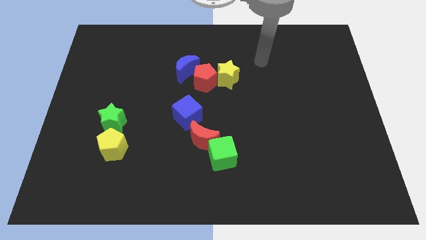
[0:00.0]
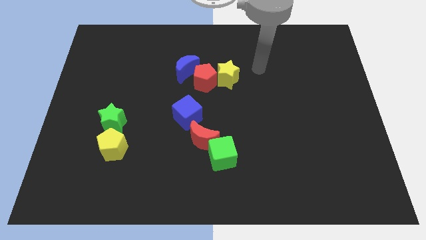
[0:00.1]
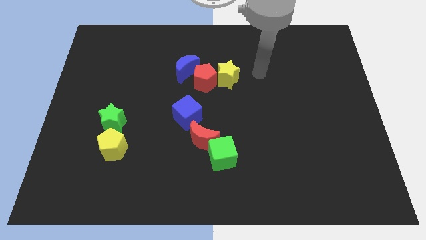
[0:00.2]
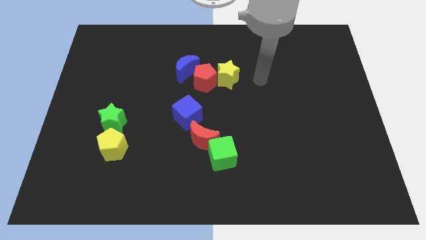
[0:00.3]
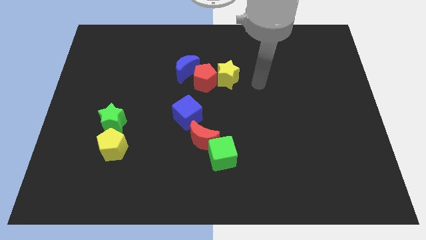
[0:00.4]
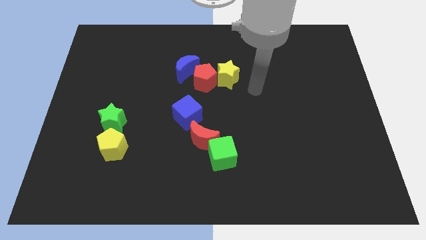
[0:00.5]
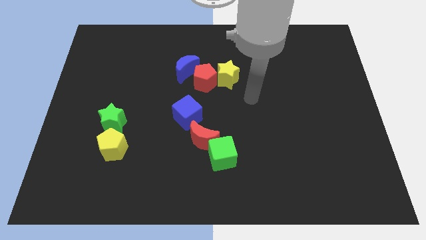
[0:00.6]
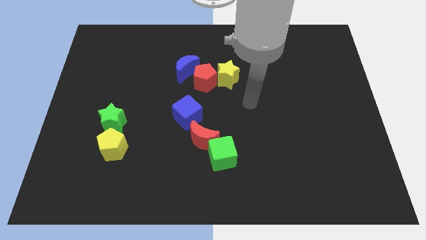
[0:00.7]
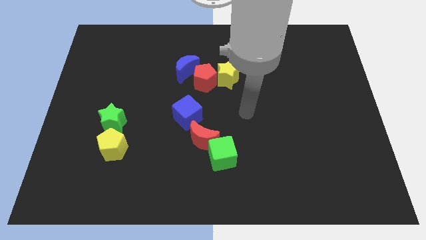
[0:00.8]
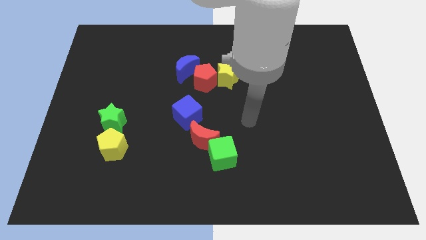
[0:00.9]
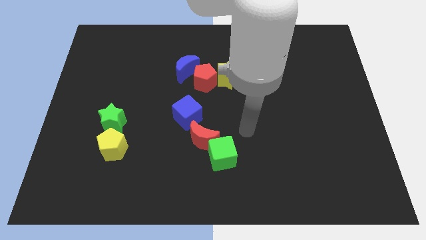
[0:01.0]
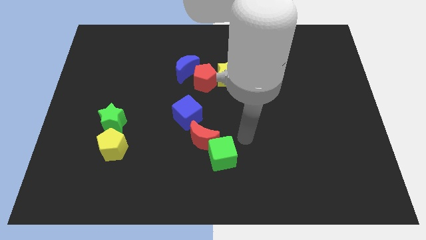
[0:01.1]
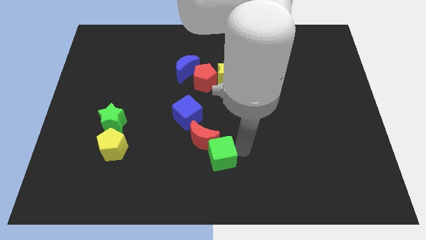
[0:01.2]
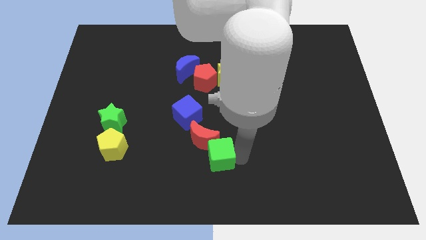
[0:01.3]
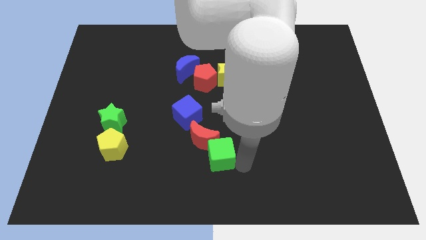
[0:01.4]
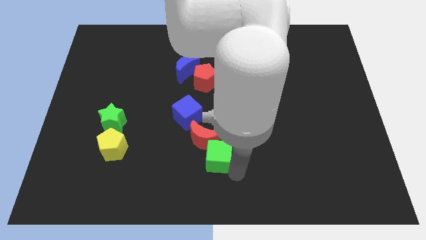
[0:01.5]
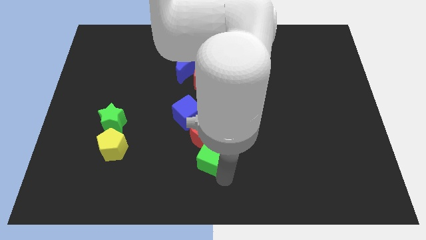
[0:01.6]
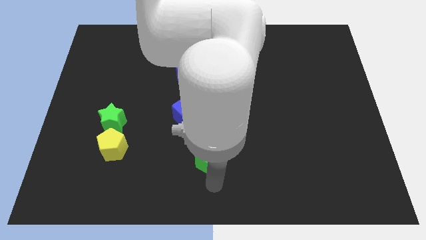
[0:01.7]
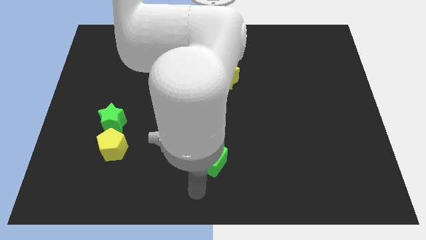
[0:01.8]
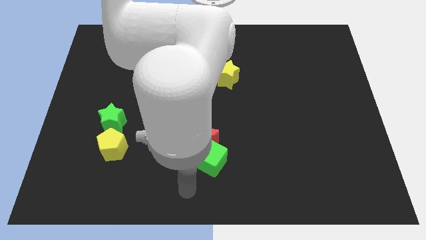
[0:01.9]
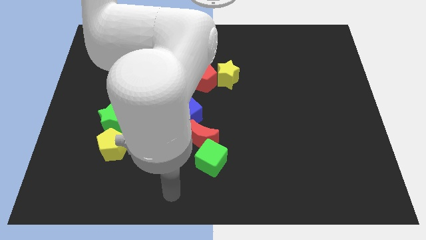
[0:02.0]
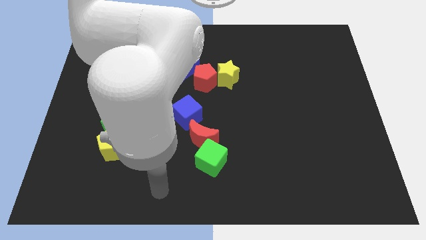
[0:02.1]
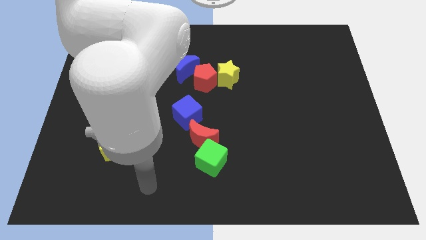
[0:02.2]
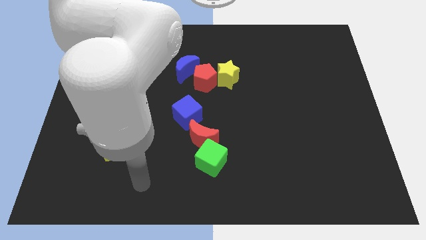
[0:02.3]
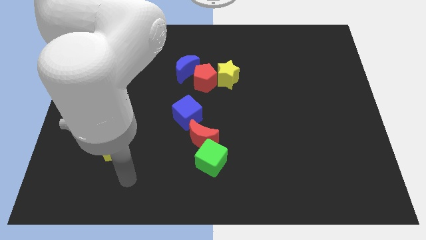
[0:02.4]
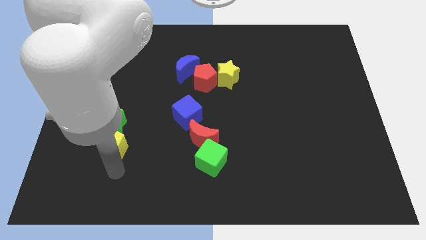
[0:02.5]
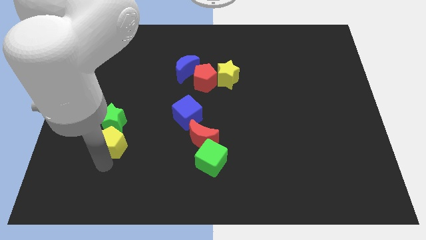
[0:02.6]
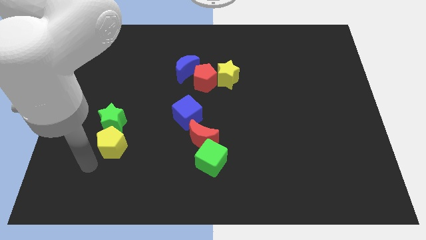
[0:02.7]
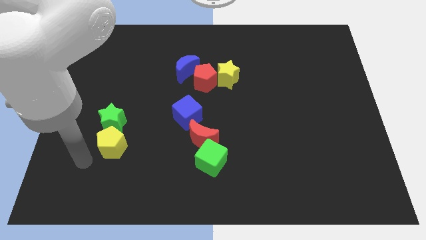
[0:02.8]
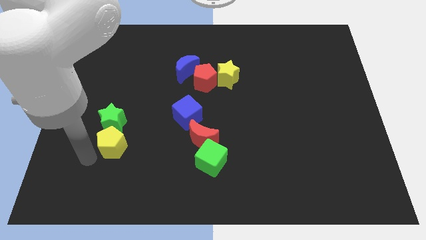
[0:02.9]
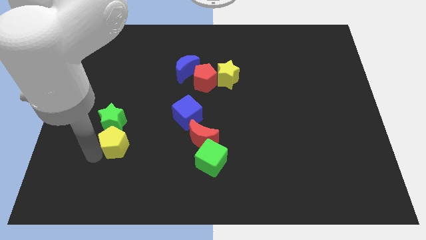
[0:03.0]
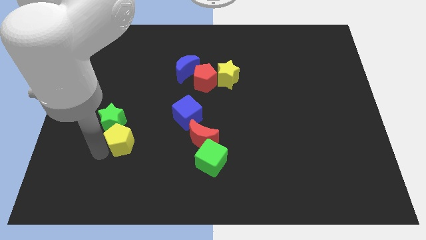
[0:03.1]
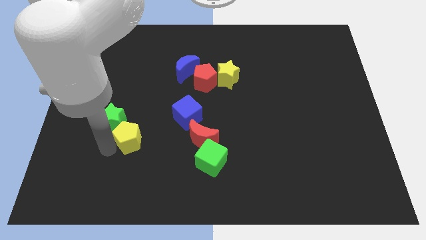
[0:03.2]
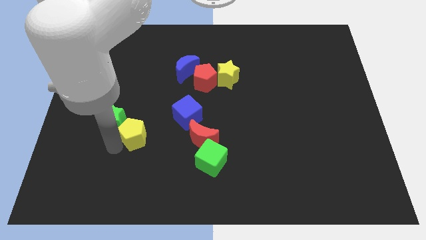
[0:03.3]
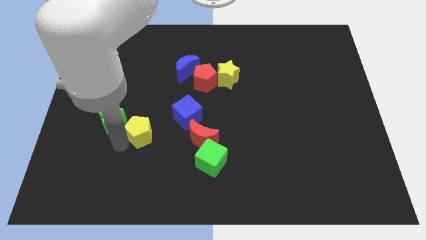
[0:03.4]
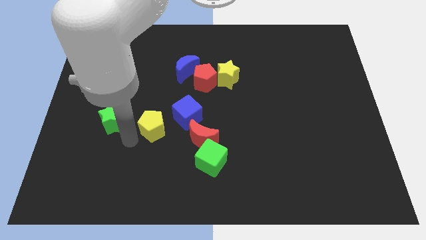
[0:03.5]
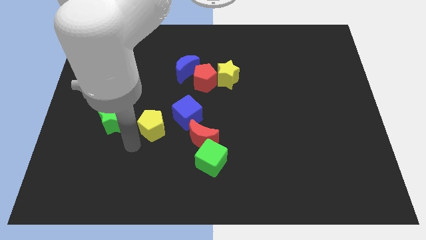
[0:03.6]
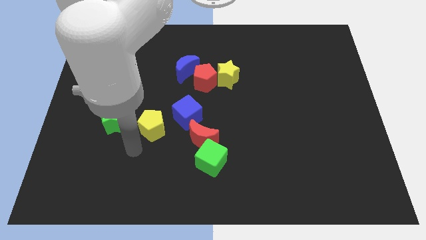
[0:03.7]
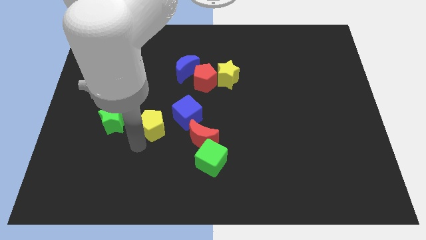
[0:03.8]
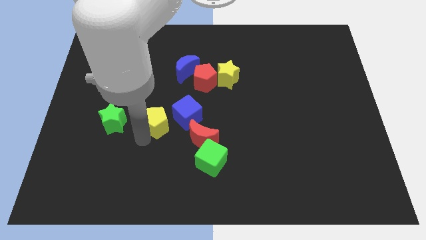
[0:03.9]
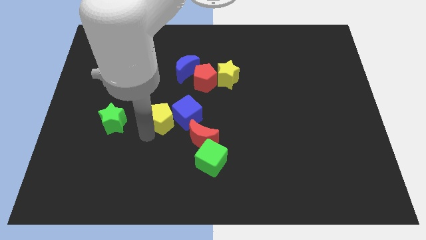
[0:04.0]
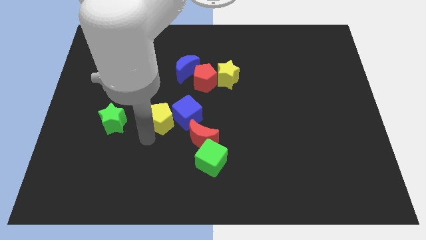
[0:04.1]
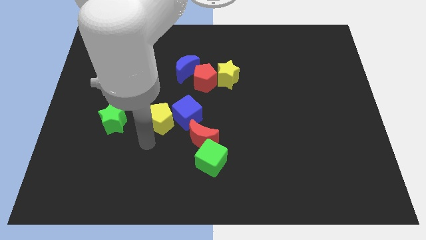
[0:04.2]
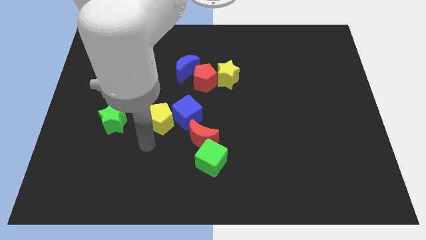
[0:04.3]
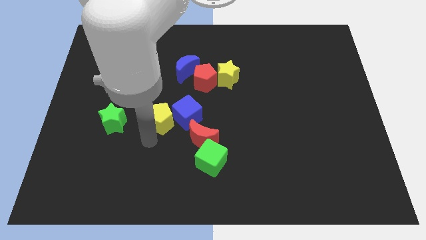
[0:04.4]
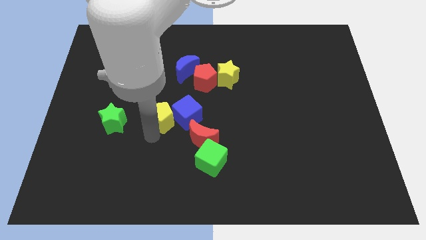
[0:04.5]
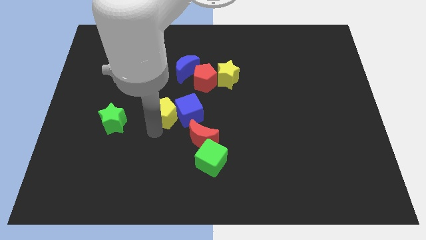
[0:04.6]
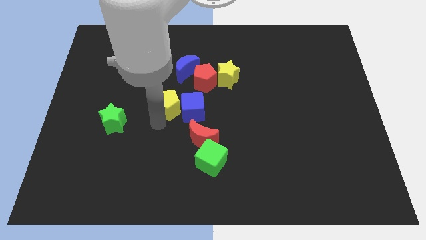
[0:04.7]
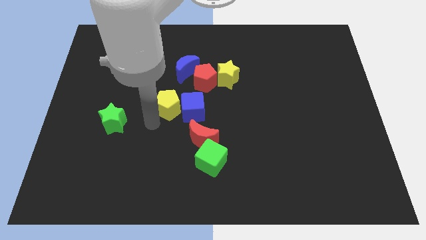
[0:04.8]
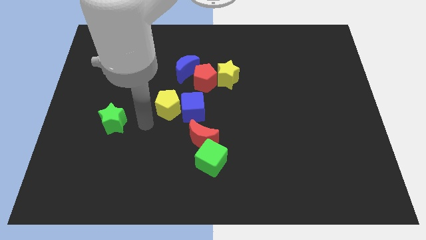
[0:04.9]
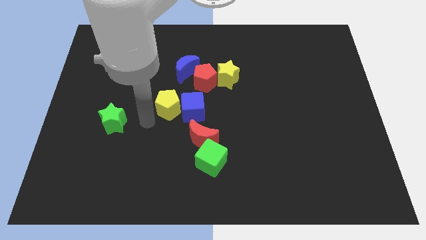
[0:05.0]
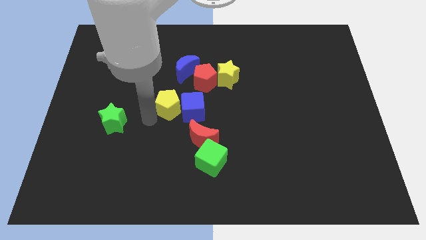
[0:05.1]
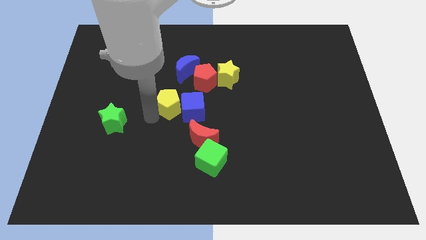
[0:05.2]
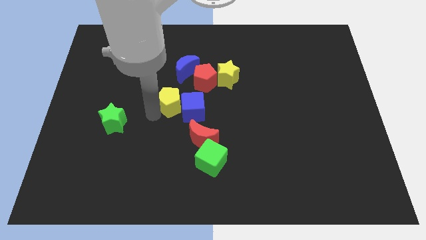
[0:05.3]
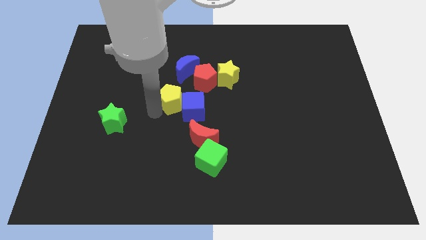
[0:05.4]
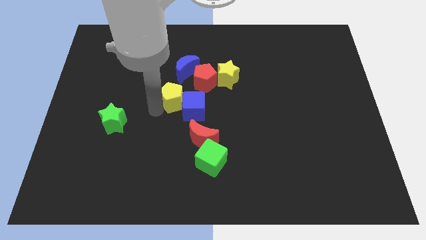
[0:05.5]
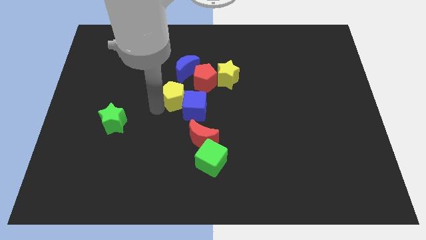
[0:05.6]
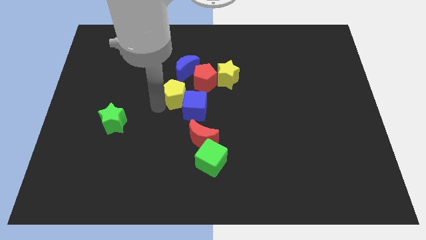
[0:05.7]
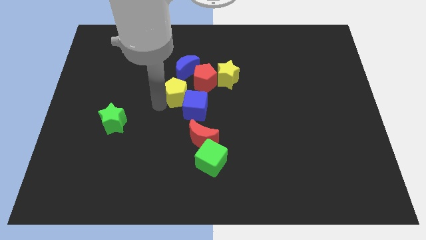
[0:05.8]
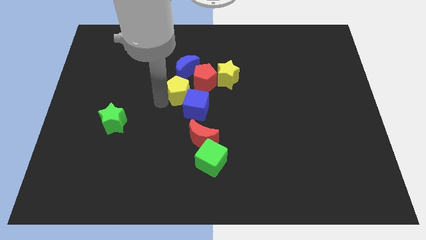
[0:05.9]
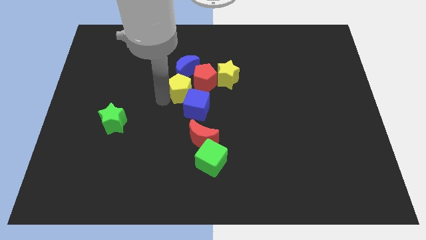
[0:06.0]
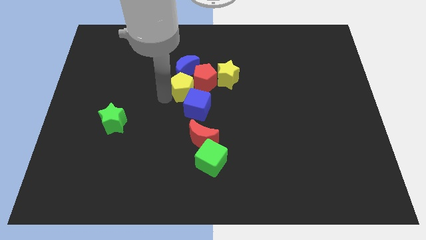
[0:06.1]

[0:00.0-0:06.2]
put the yellow pentagon towards the red pentagon
